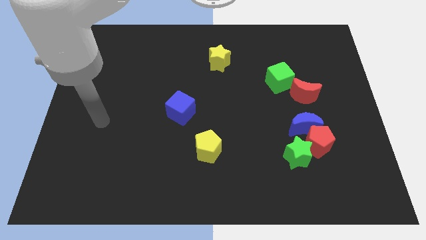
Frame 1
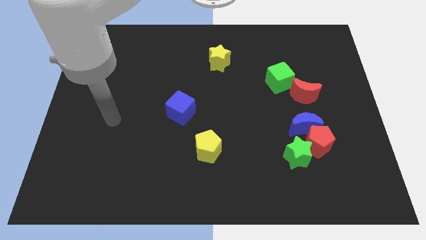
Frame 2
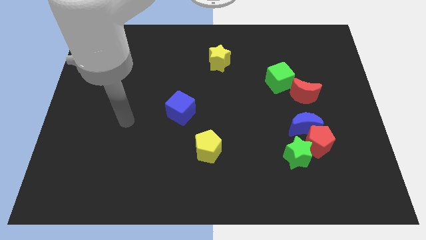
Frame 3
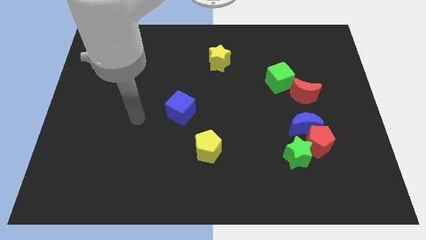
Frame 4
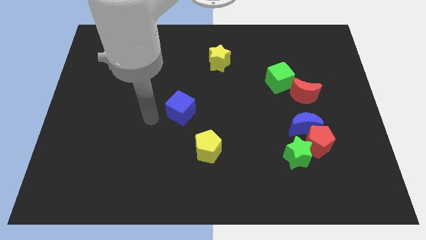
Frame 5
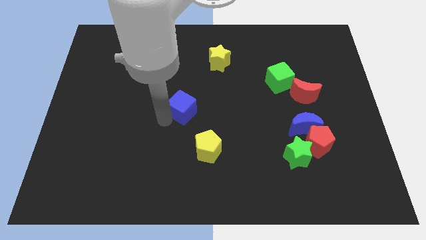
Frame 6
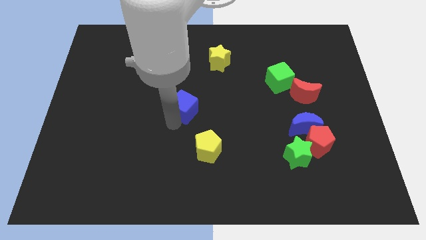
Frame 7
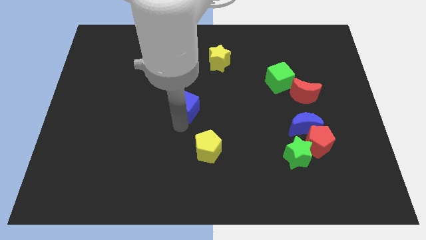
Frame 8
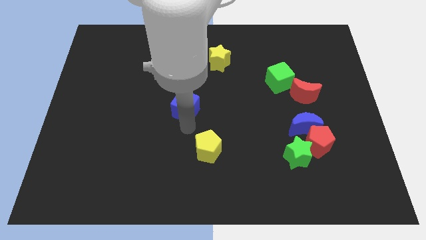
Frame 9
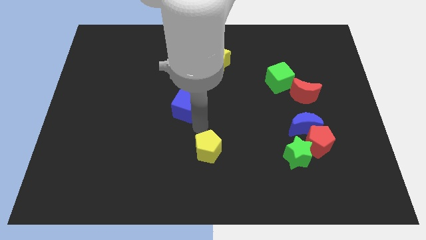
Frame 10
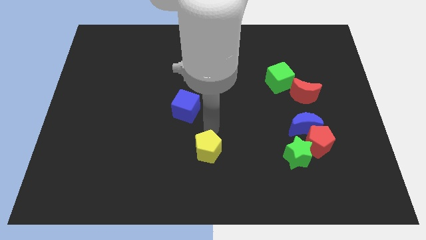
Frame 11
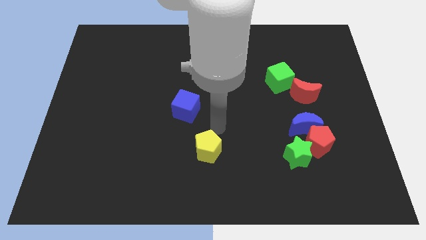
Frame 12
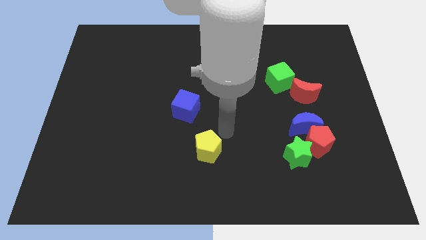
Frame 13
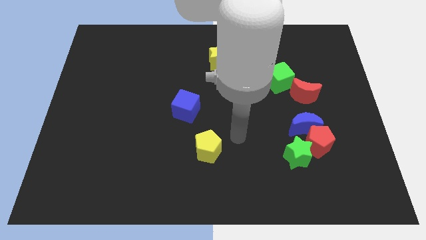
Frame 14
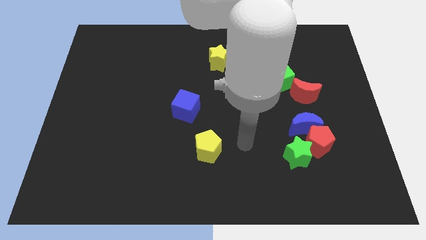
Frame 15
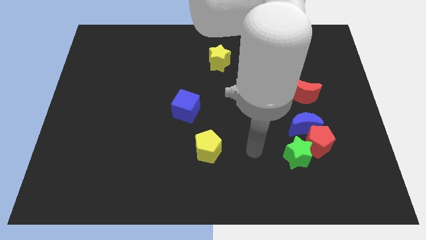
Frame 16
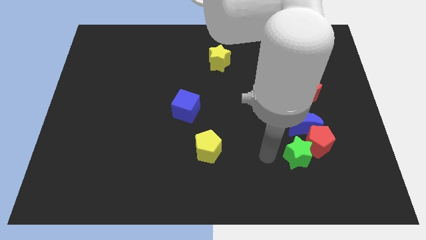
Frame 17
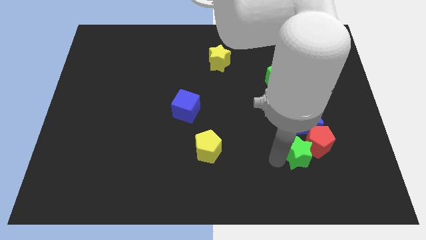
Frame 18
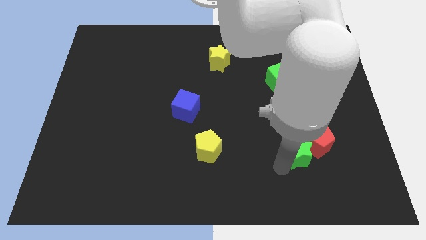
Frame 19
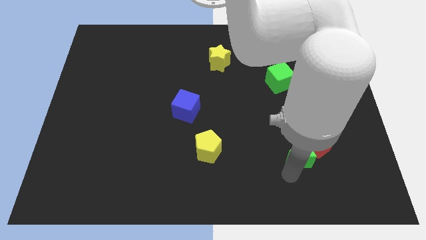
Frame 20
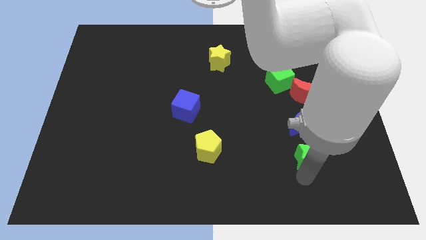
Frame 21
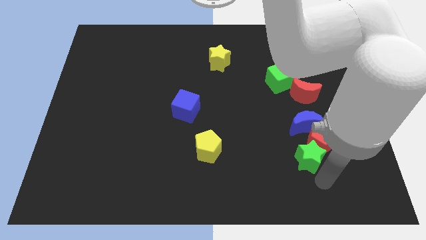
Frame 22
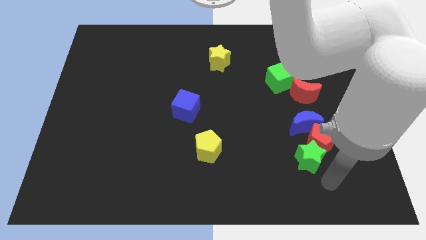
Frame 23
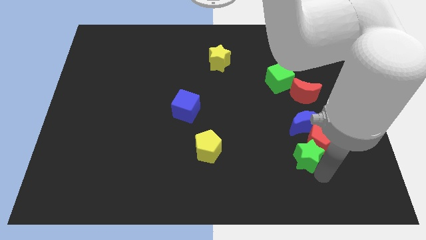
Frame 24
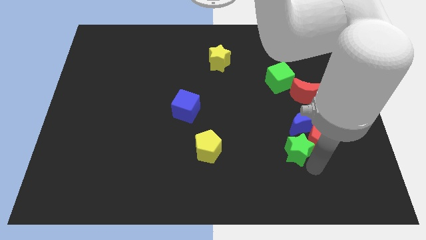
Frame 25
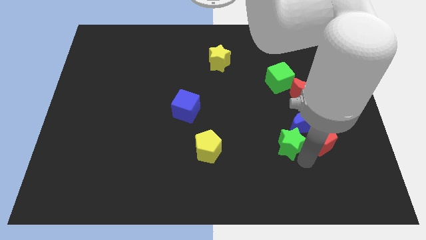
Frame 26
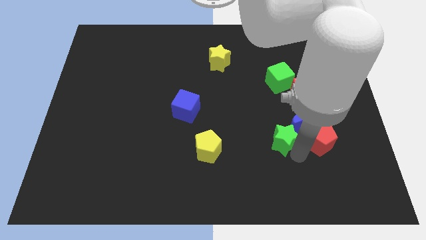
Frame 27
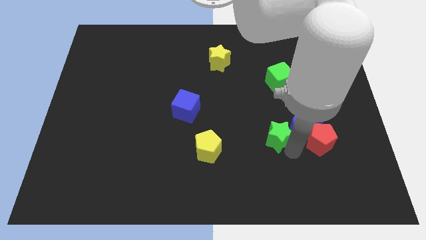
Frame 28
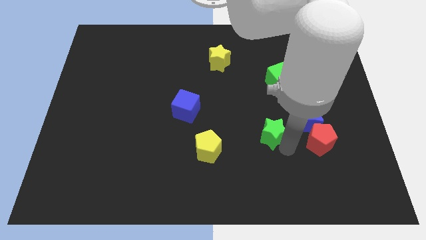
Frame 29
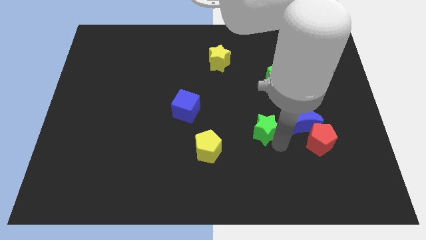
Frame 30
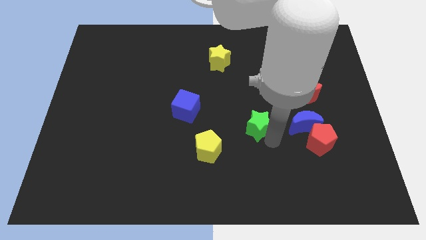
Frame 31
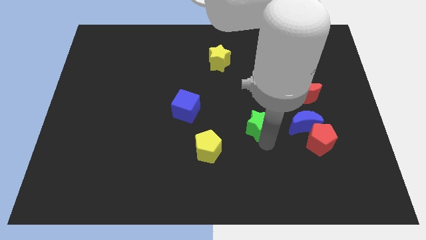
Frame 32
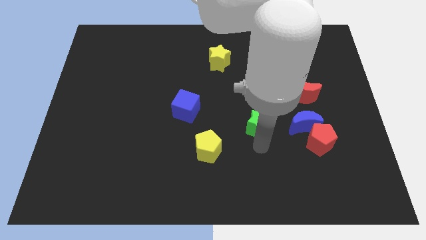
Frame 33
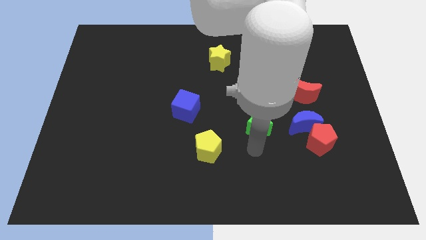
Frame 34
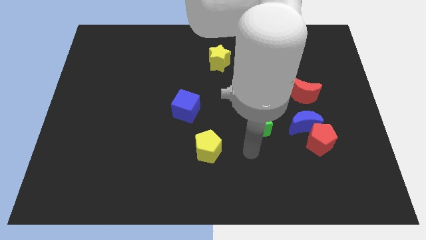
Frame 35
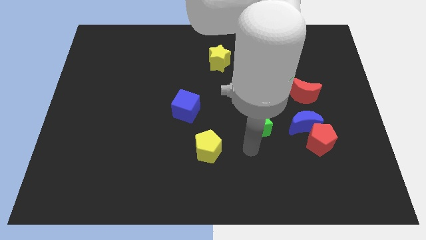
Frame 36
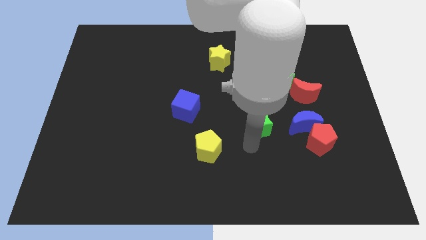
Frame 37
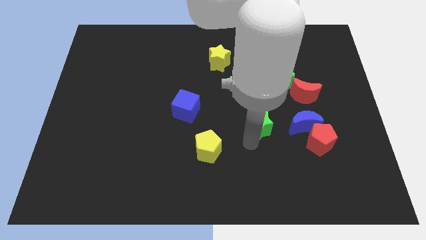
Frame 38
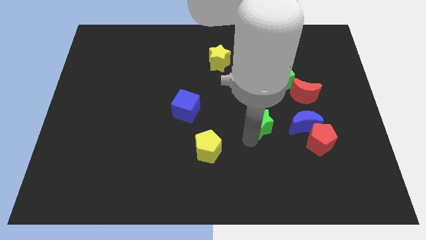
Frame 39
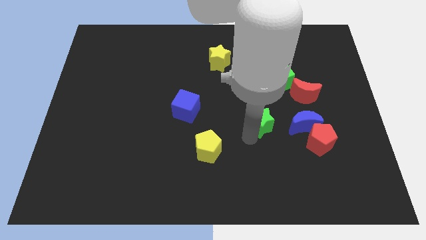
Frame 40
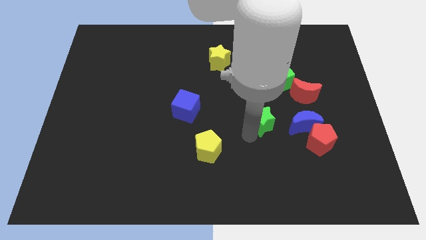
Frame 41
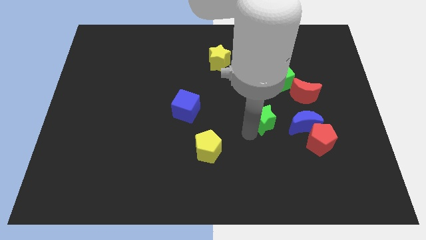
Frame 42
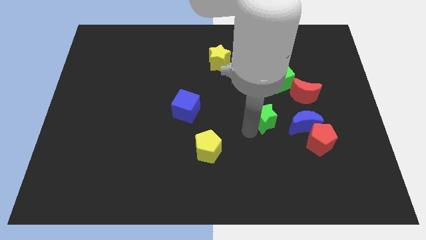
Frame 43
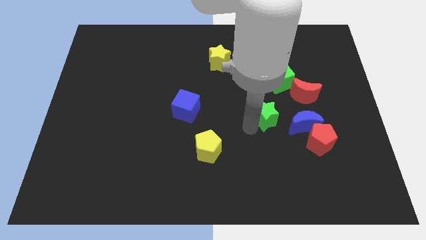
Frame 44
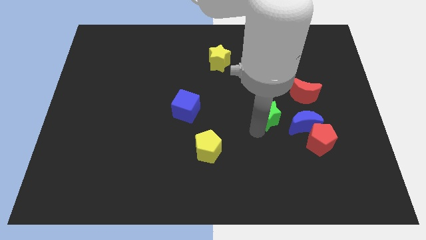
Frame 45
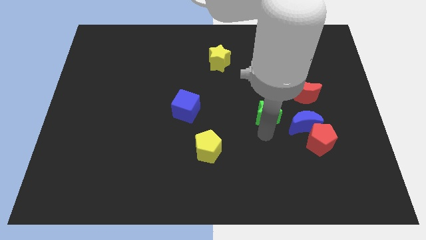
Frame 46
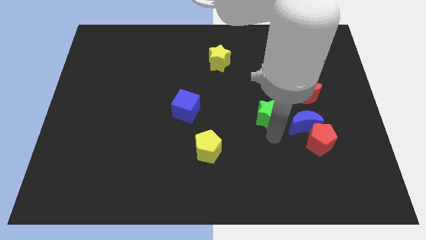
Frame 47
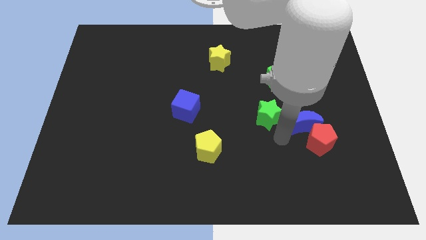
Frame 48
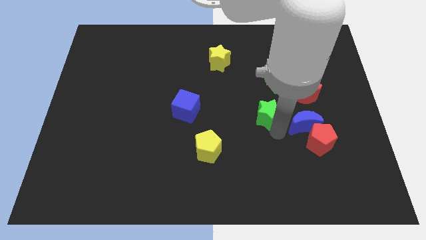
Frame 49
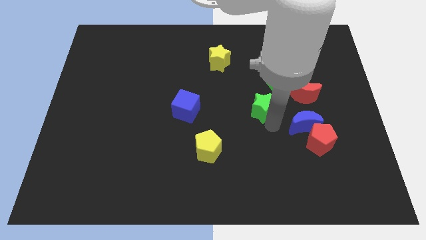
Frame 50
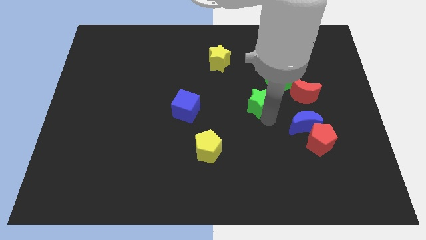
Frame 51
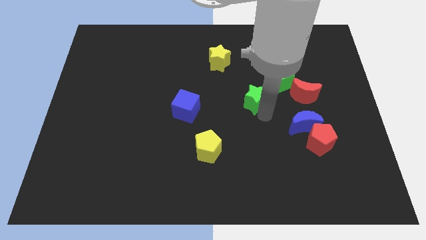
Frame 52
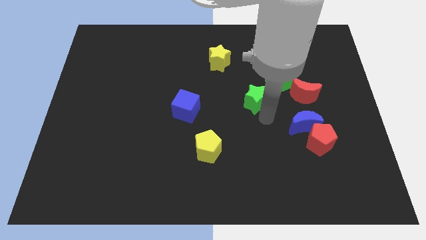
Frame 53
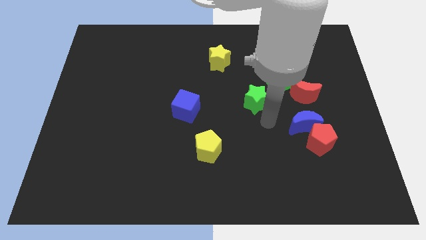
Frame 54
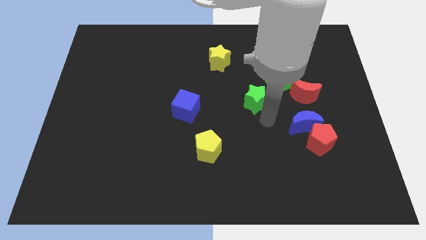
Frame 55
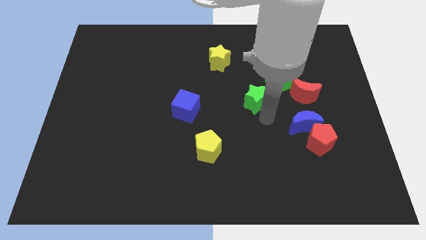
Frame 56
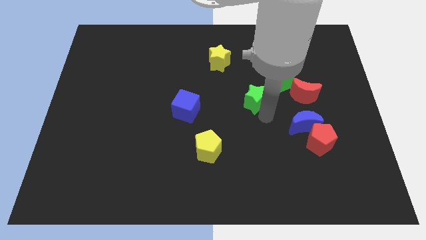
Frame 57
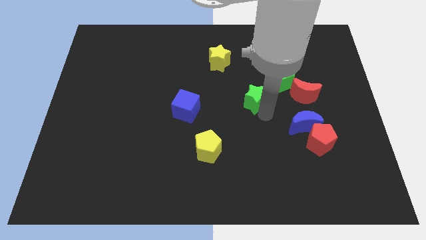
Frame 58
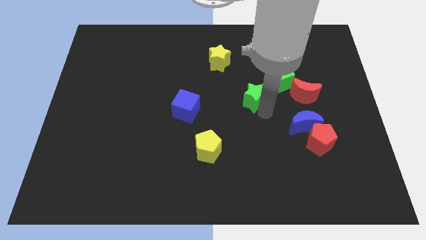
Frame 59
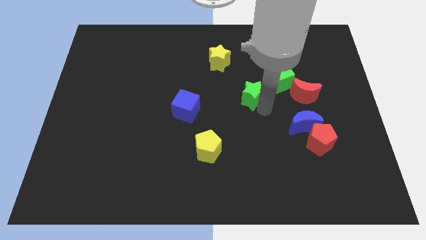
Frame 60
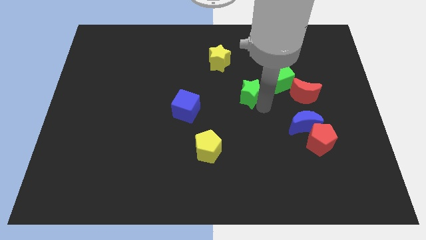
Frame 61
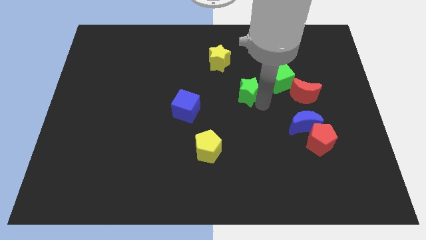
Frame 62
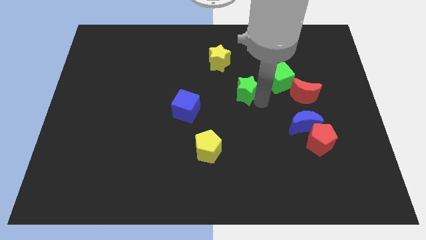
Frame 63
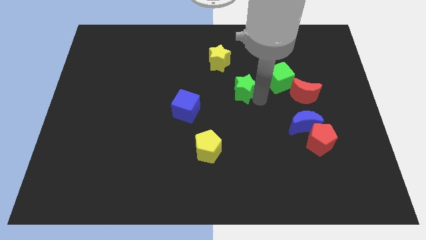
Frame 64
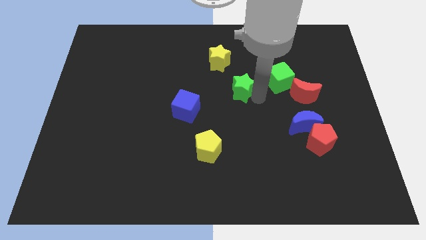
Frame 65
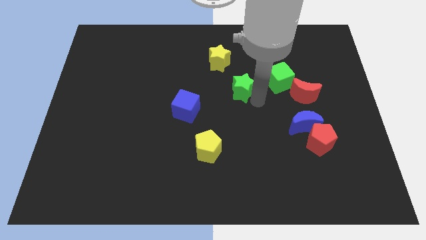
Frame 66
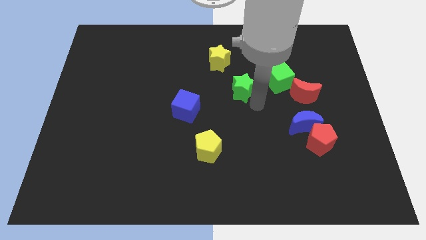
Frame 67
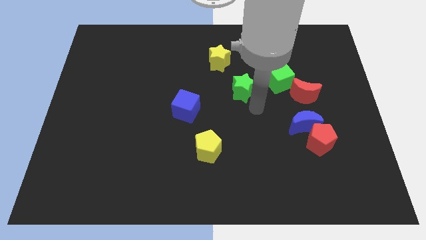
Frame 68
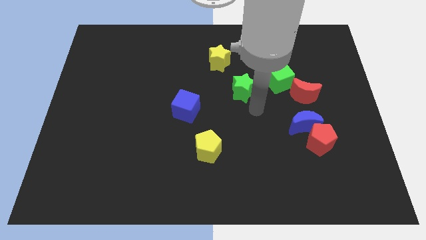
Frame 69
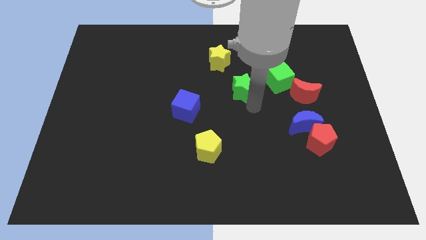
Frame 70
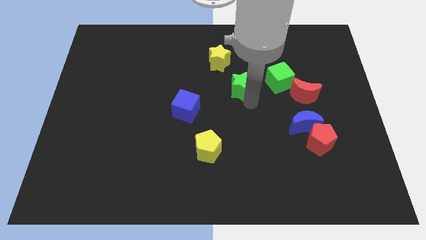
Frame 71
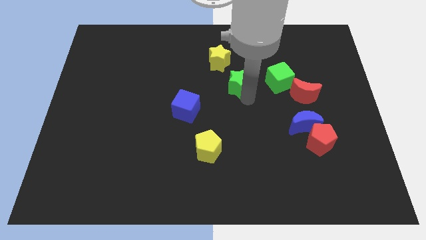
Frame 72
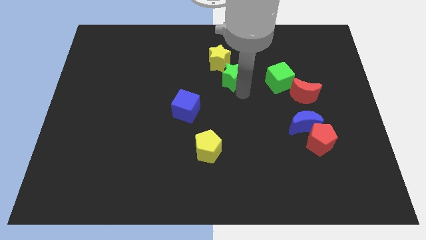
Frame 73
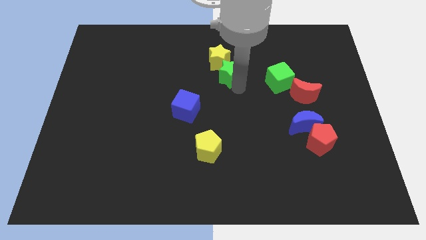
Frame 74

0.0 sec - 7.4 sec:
slide the green star to the yellow star

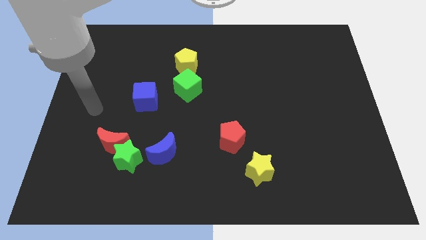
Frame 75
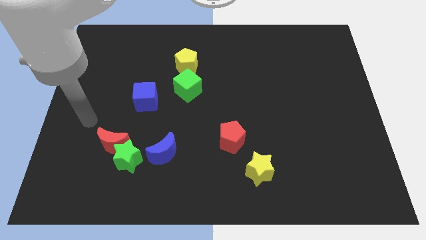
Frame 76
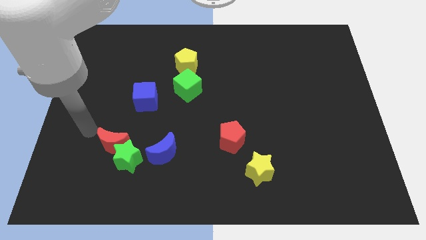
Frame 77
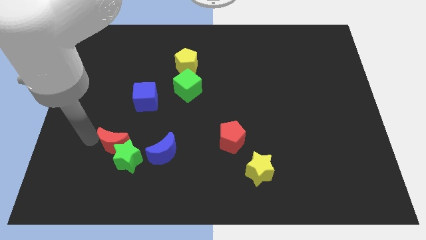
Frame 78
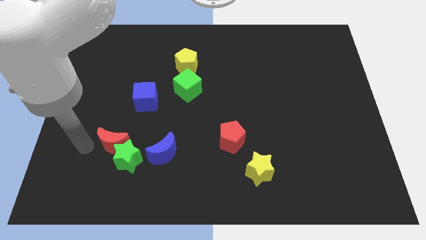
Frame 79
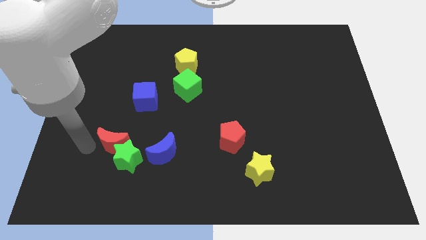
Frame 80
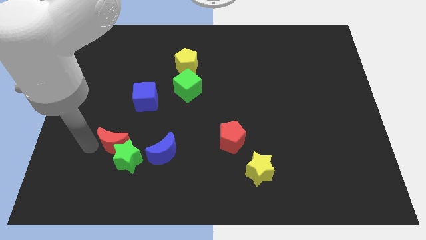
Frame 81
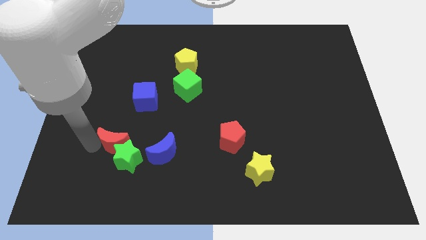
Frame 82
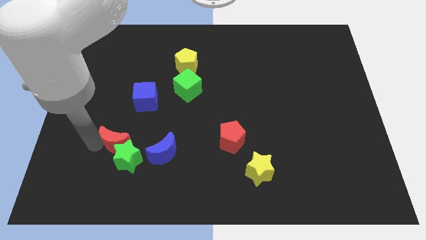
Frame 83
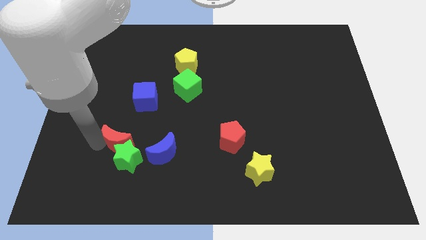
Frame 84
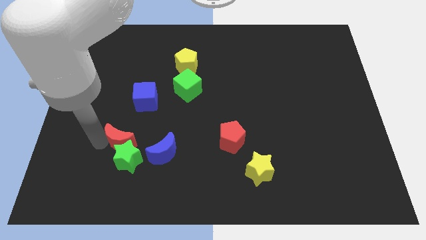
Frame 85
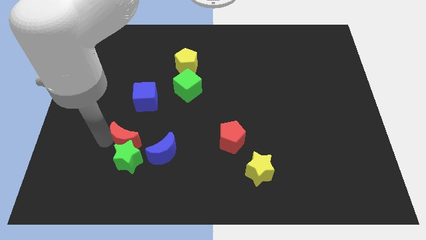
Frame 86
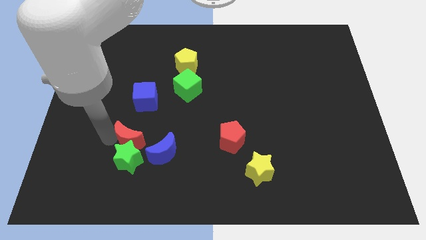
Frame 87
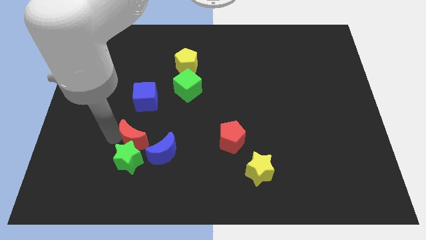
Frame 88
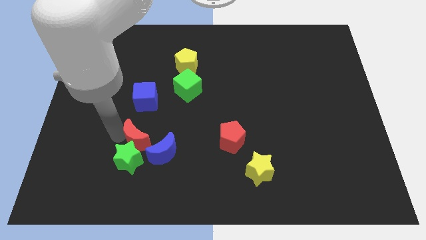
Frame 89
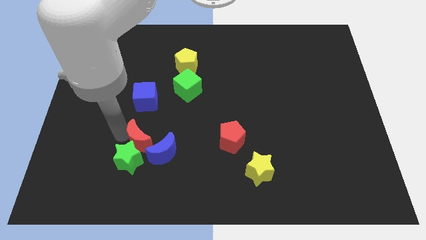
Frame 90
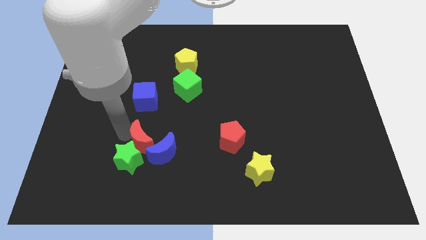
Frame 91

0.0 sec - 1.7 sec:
push the red moon next to the blue moon
